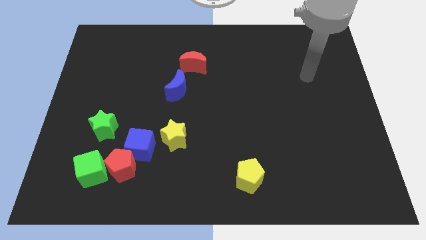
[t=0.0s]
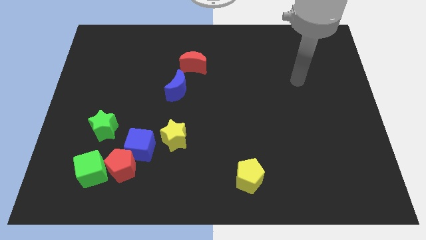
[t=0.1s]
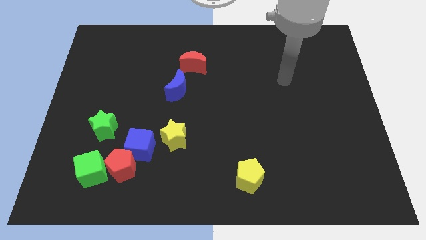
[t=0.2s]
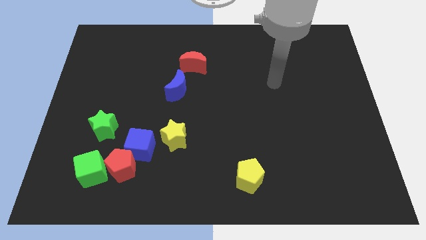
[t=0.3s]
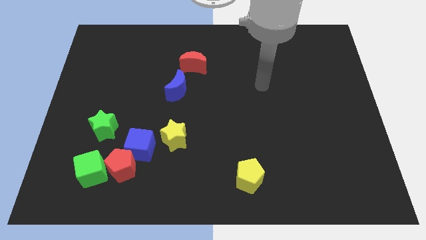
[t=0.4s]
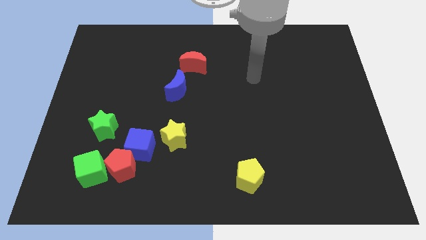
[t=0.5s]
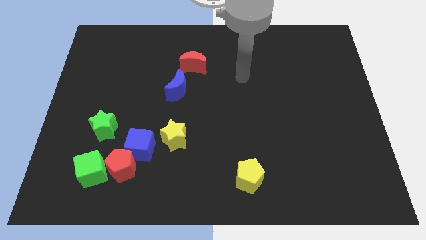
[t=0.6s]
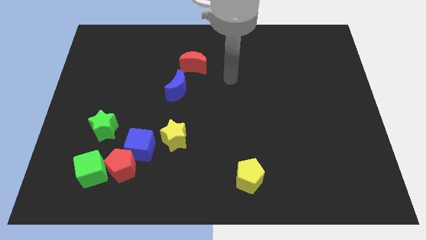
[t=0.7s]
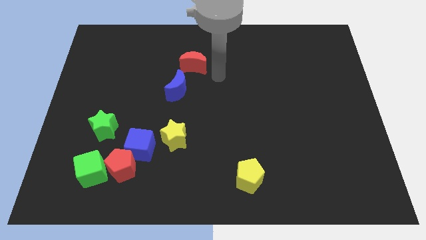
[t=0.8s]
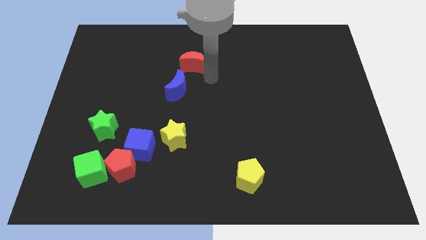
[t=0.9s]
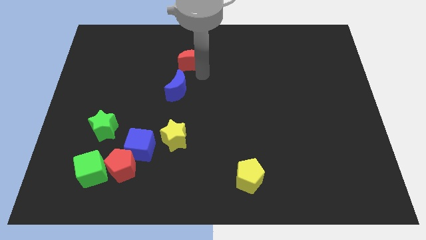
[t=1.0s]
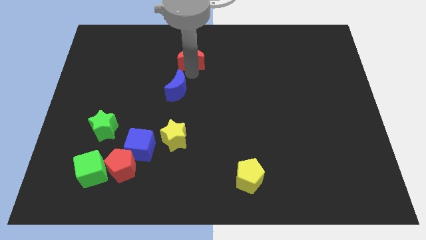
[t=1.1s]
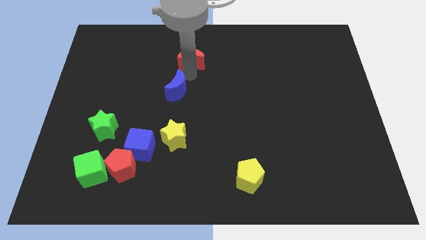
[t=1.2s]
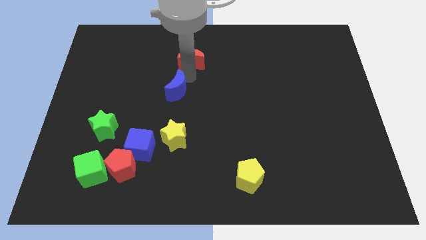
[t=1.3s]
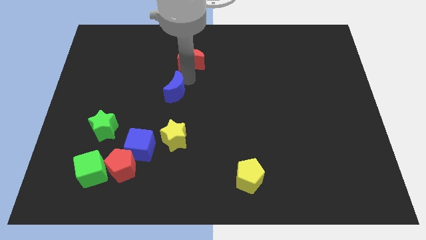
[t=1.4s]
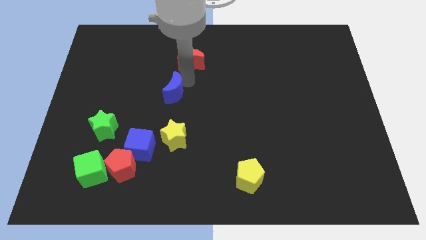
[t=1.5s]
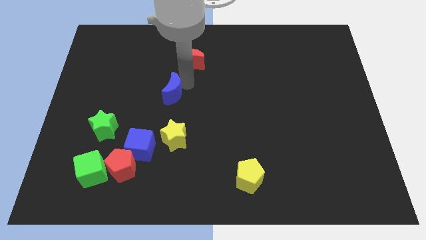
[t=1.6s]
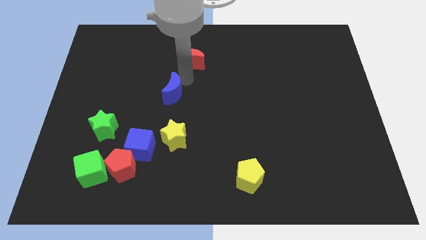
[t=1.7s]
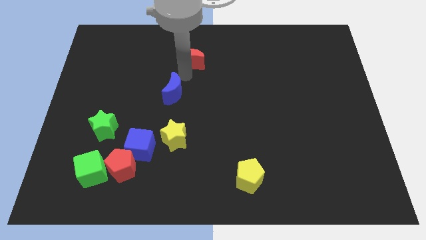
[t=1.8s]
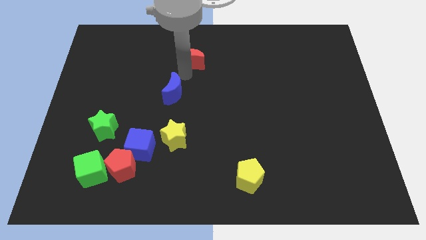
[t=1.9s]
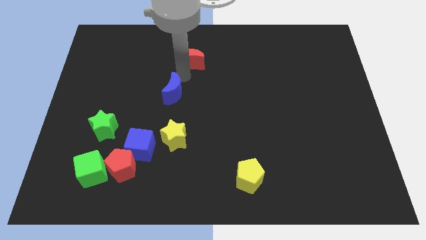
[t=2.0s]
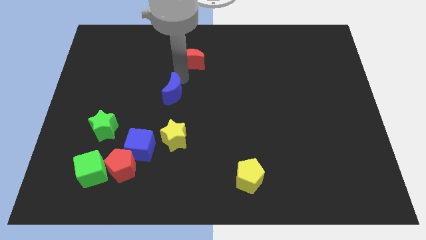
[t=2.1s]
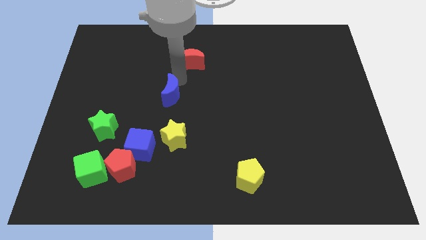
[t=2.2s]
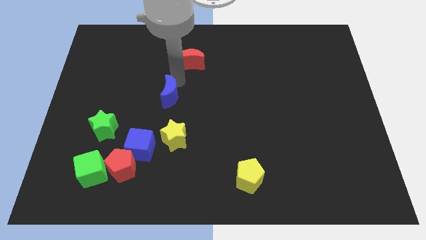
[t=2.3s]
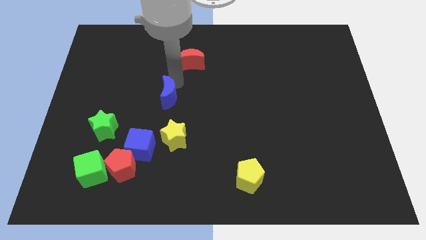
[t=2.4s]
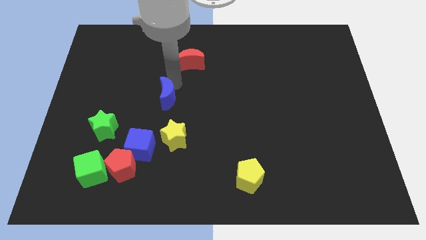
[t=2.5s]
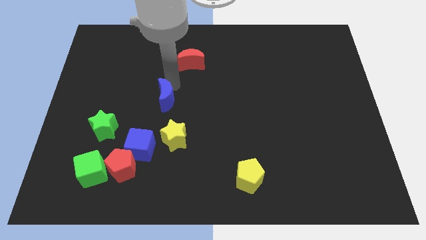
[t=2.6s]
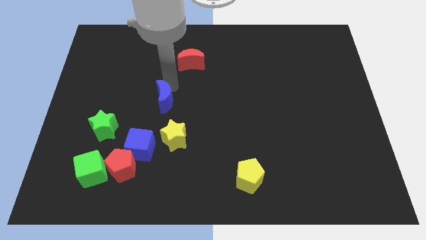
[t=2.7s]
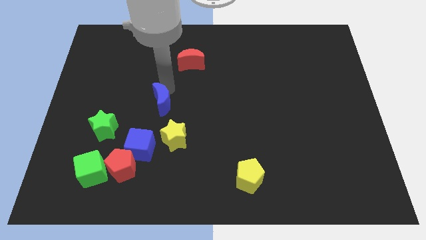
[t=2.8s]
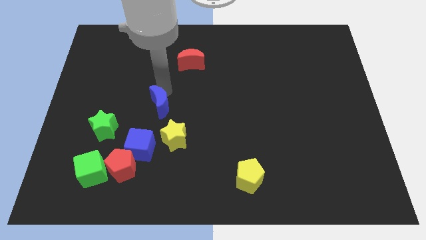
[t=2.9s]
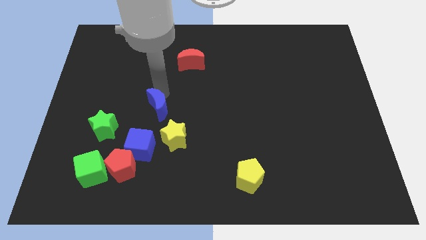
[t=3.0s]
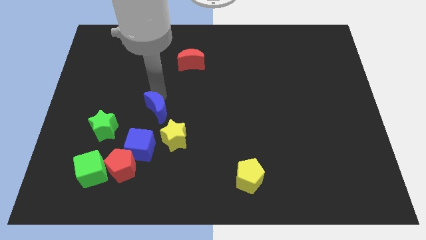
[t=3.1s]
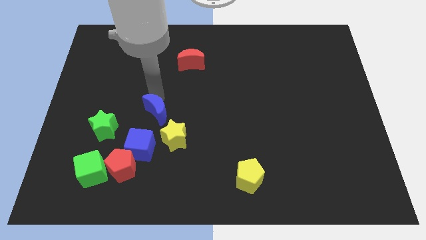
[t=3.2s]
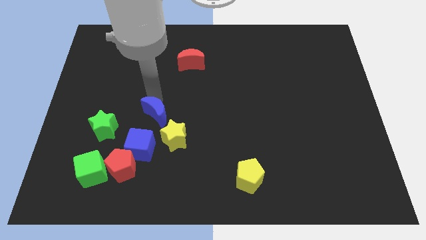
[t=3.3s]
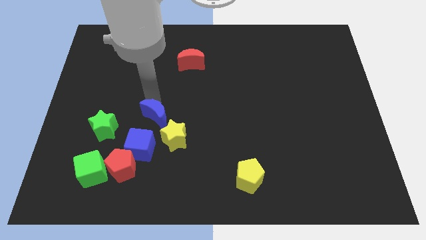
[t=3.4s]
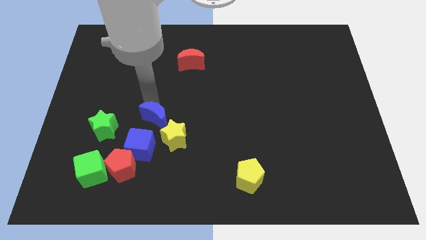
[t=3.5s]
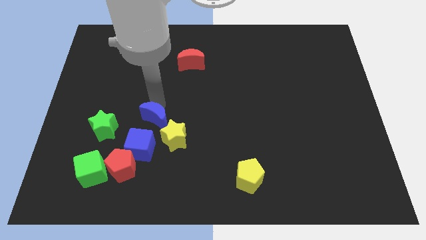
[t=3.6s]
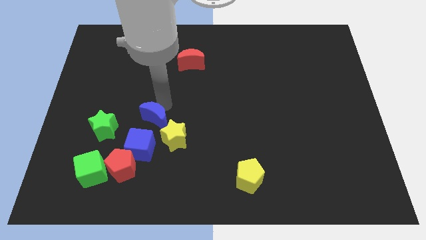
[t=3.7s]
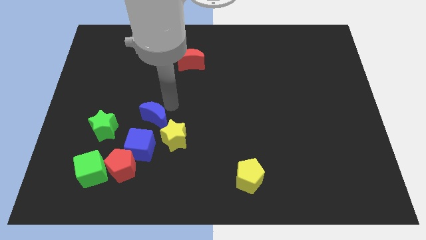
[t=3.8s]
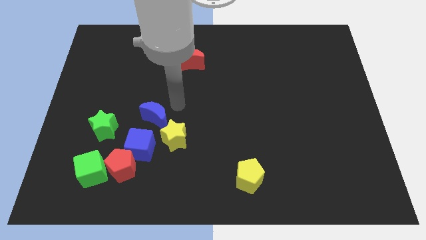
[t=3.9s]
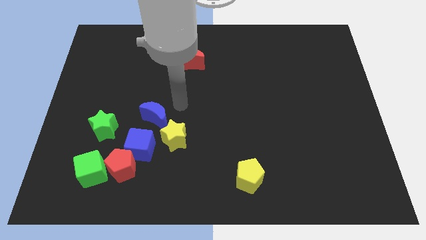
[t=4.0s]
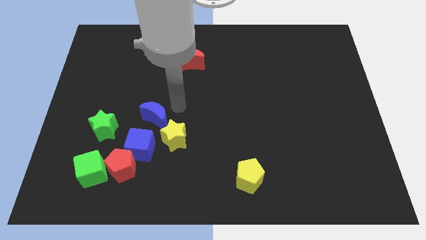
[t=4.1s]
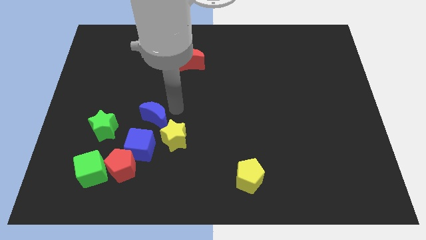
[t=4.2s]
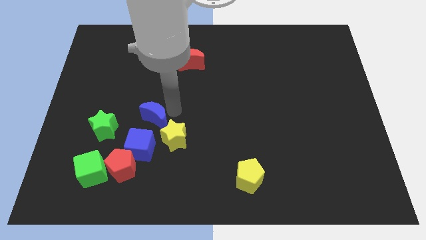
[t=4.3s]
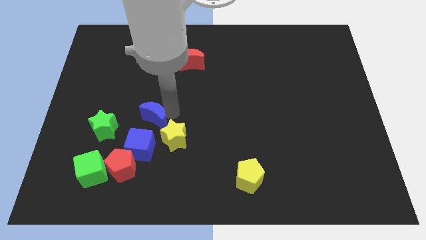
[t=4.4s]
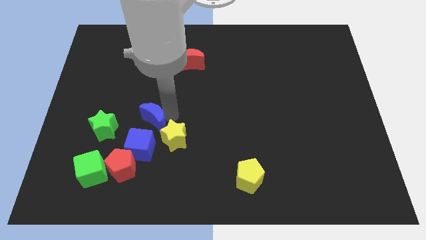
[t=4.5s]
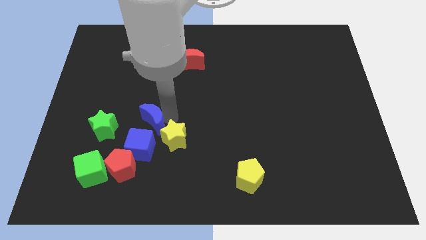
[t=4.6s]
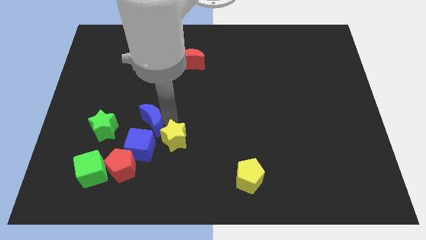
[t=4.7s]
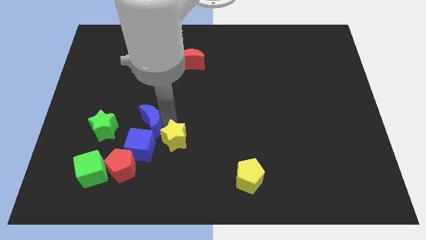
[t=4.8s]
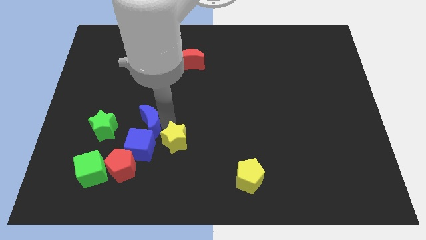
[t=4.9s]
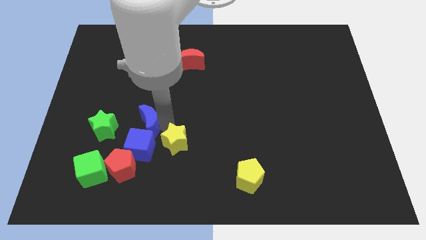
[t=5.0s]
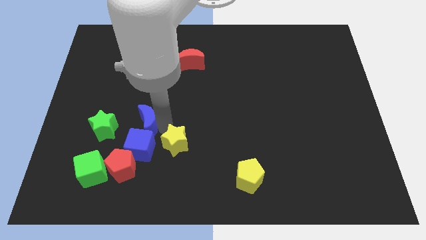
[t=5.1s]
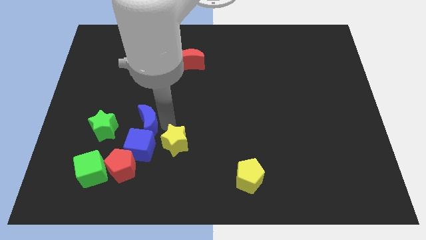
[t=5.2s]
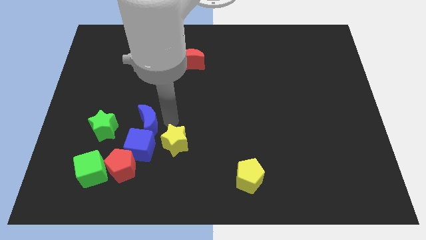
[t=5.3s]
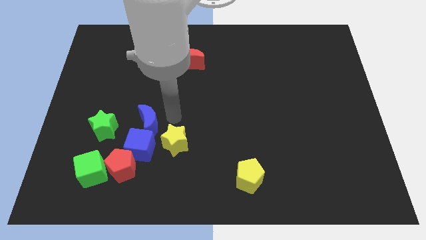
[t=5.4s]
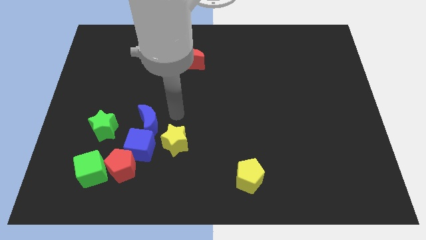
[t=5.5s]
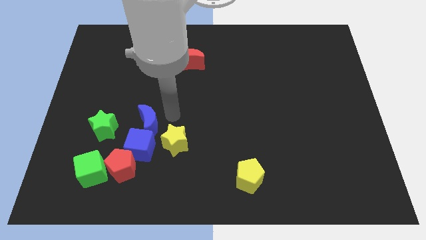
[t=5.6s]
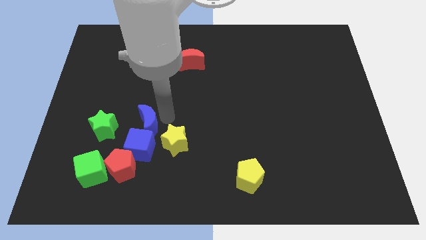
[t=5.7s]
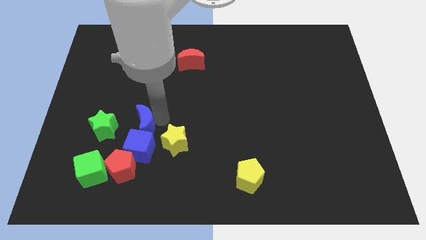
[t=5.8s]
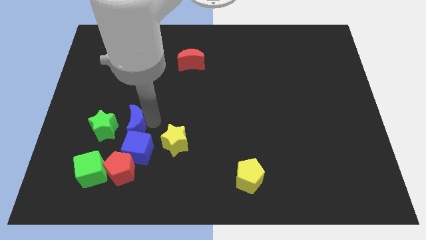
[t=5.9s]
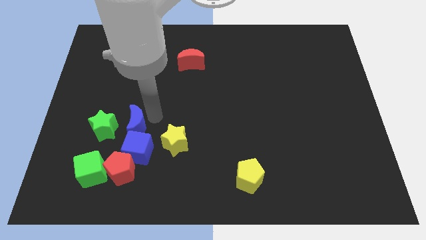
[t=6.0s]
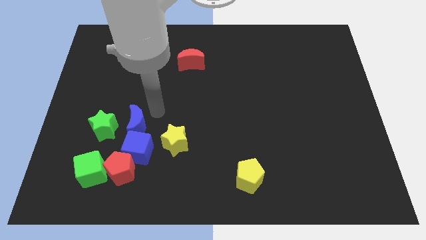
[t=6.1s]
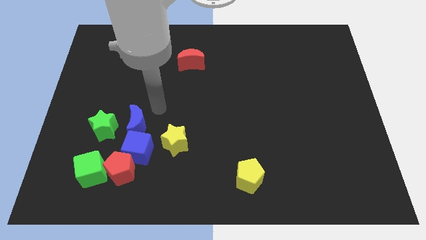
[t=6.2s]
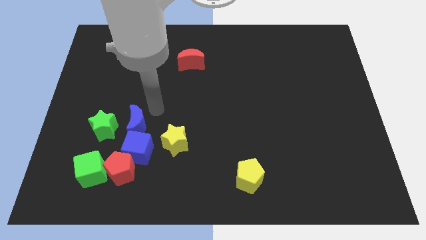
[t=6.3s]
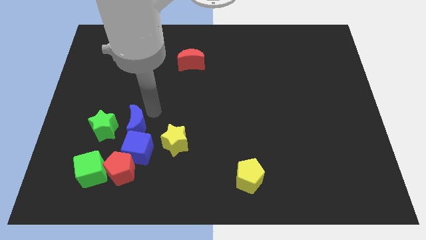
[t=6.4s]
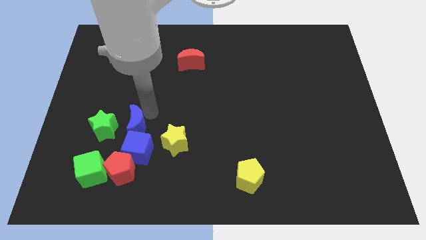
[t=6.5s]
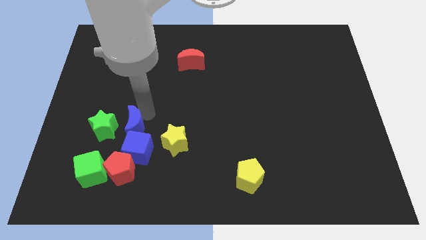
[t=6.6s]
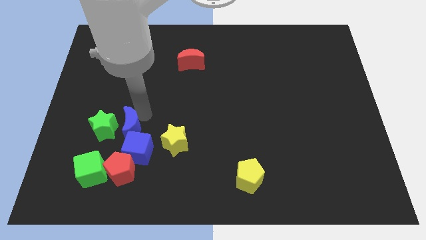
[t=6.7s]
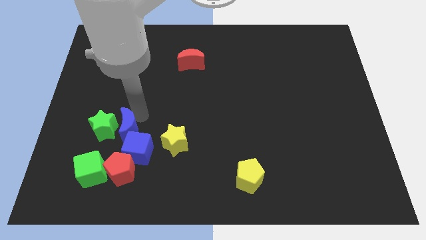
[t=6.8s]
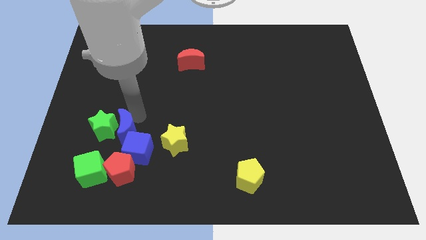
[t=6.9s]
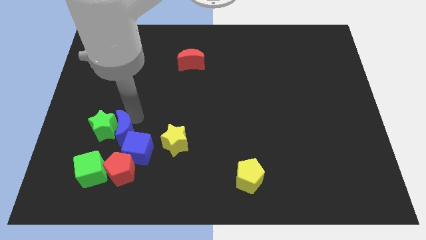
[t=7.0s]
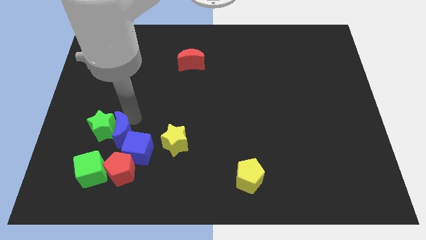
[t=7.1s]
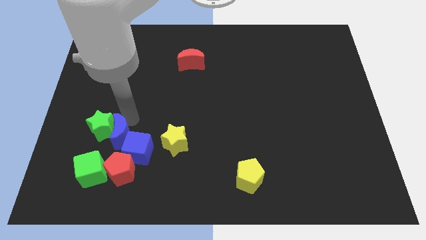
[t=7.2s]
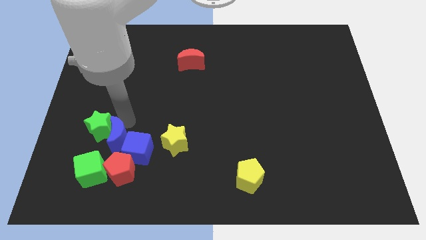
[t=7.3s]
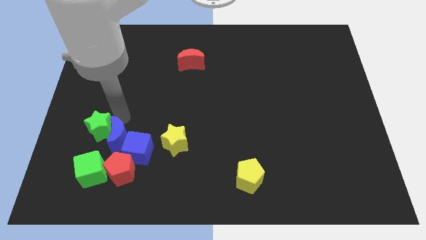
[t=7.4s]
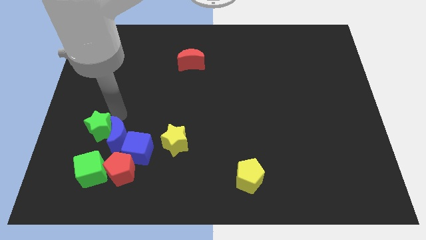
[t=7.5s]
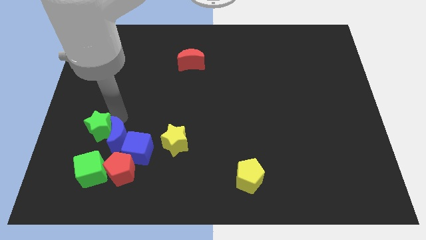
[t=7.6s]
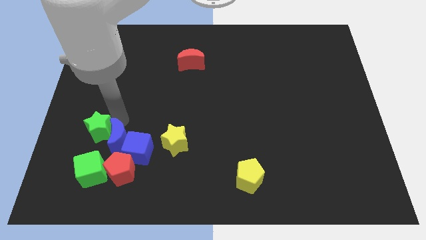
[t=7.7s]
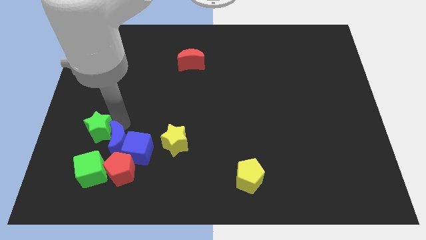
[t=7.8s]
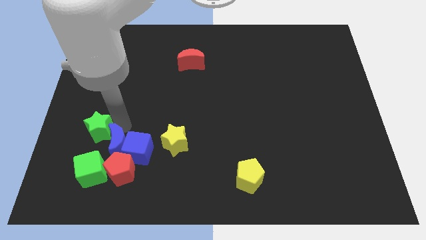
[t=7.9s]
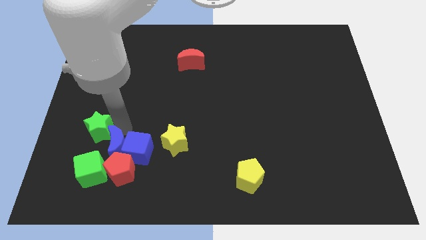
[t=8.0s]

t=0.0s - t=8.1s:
slide the blue moon close to the red pentagon

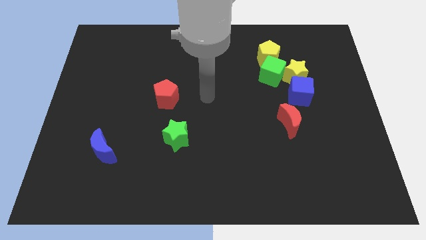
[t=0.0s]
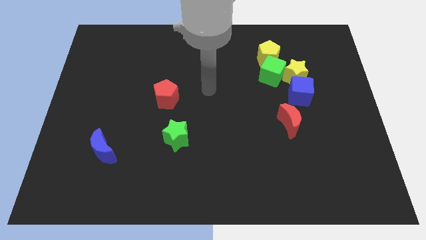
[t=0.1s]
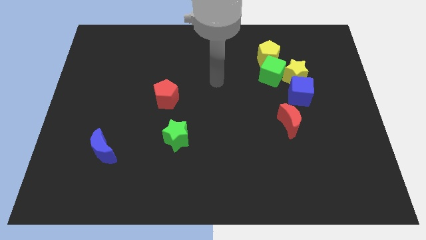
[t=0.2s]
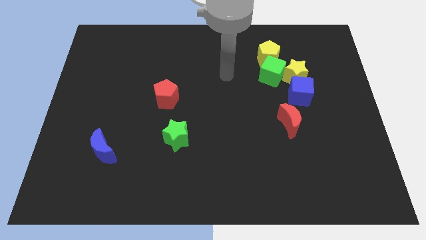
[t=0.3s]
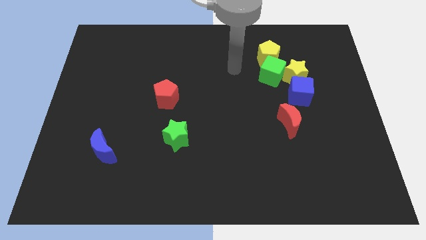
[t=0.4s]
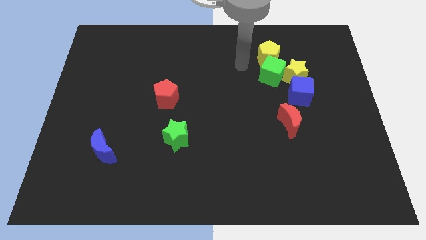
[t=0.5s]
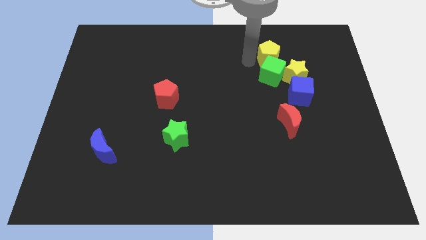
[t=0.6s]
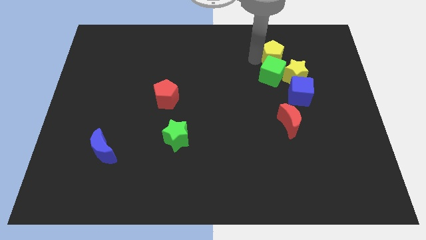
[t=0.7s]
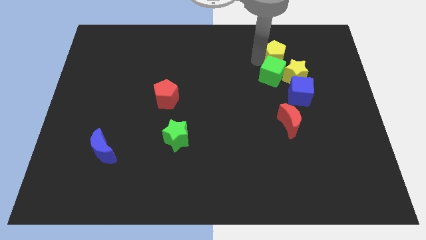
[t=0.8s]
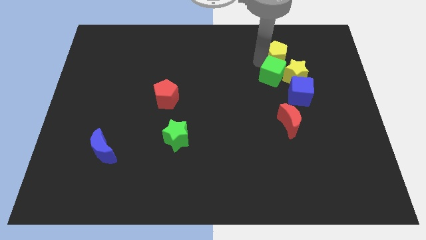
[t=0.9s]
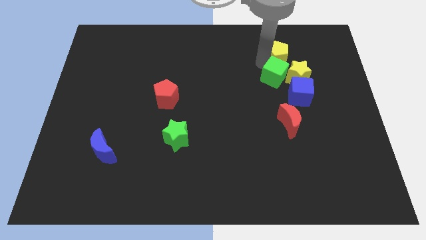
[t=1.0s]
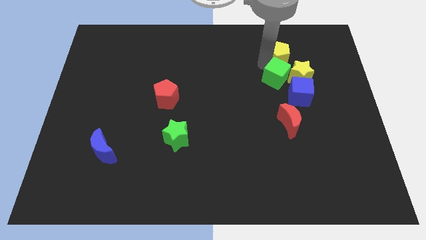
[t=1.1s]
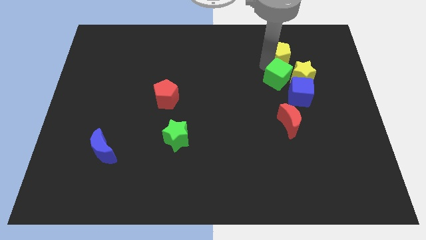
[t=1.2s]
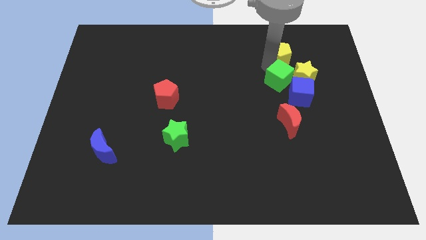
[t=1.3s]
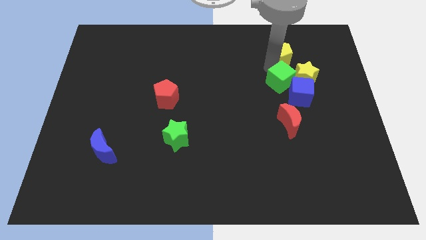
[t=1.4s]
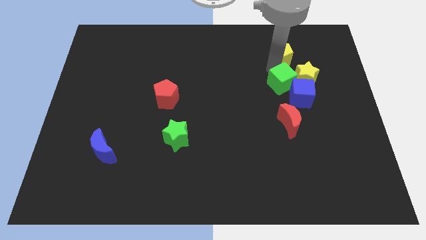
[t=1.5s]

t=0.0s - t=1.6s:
push the green cube close to the blue cube
